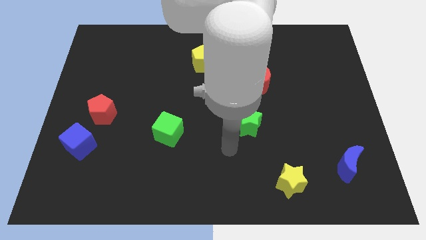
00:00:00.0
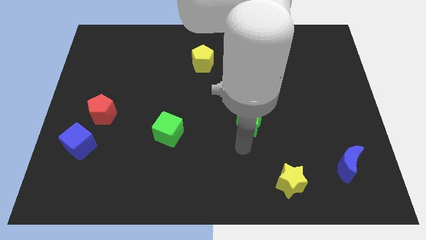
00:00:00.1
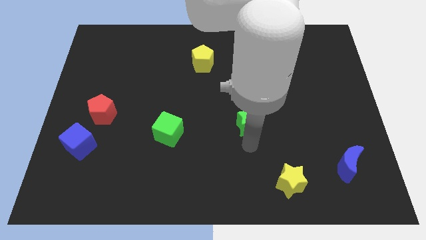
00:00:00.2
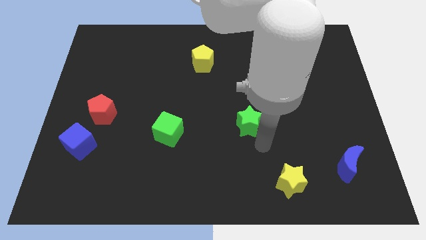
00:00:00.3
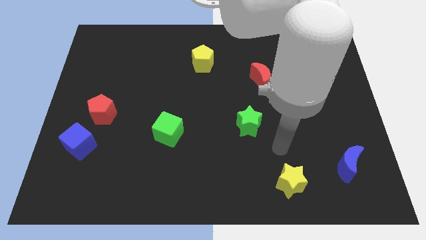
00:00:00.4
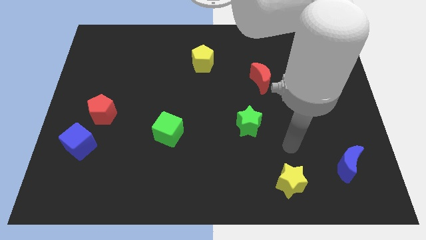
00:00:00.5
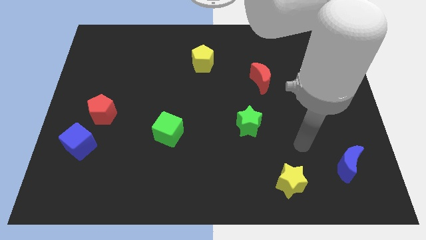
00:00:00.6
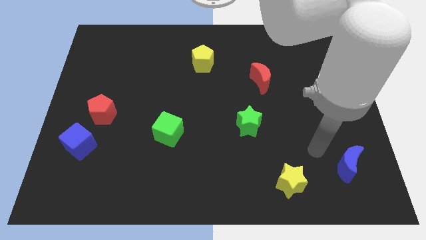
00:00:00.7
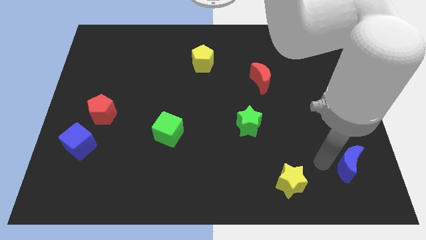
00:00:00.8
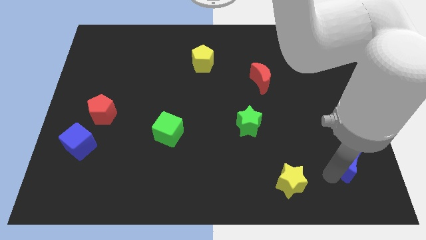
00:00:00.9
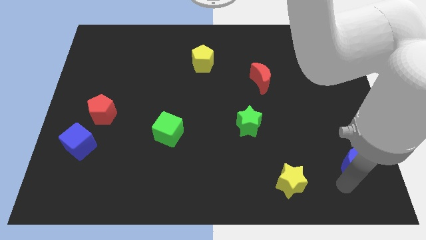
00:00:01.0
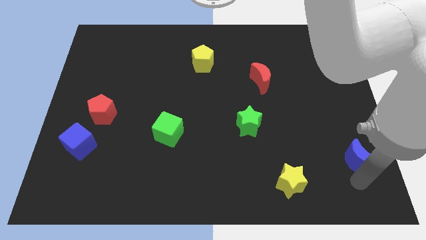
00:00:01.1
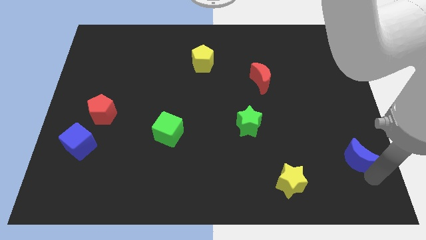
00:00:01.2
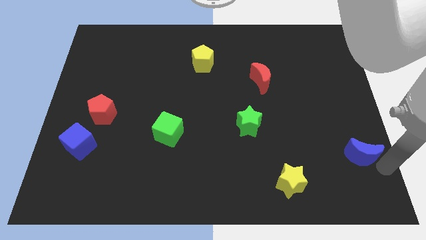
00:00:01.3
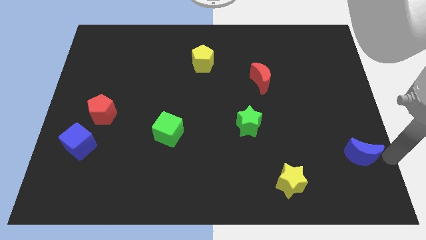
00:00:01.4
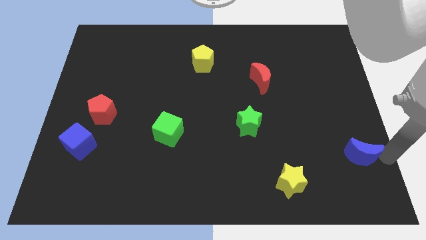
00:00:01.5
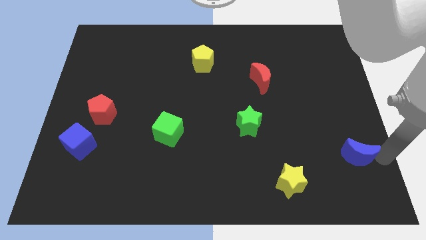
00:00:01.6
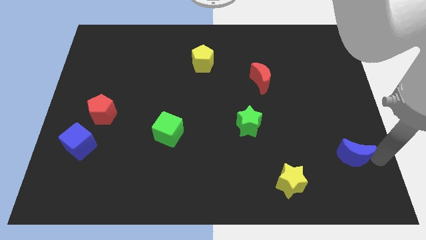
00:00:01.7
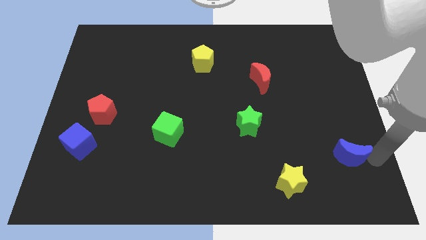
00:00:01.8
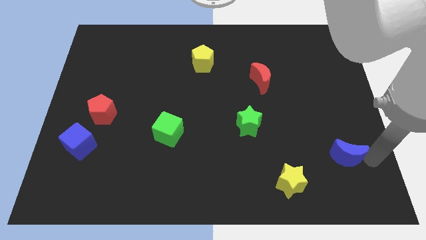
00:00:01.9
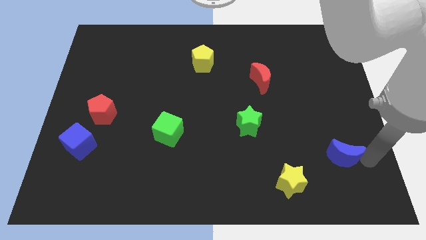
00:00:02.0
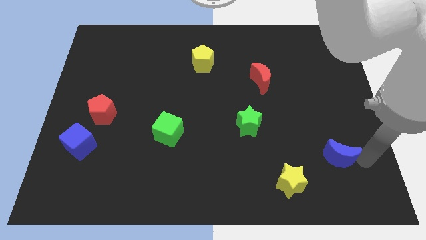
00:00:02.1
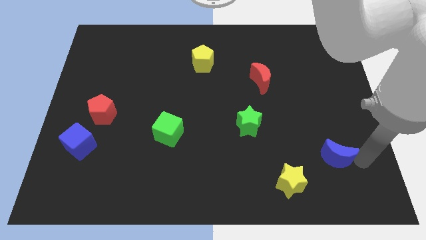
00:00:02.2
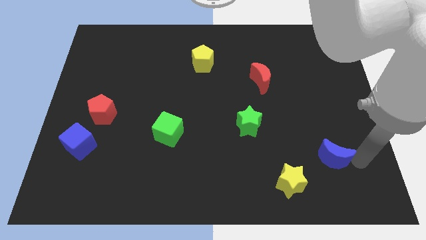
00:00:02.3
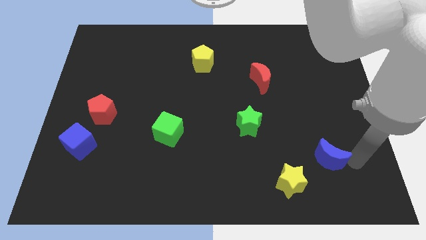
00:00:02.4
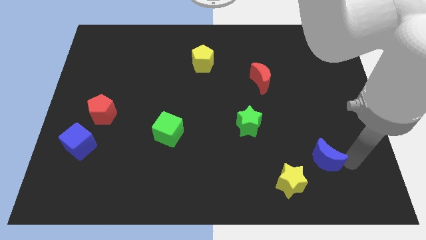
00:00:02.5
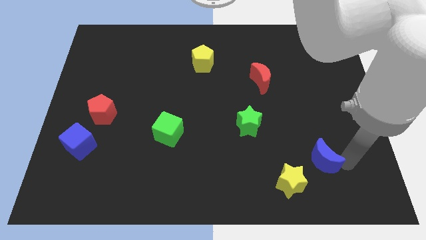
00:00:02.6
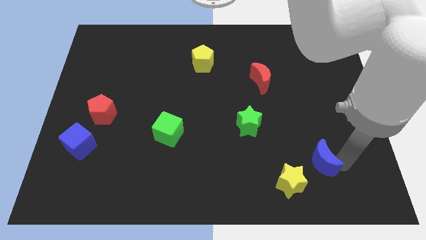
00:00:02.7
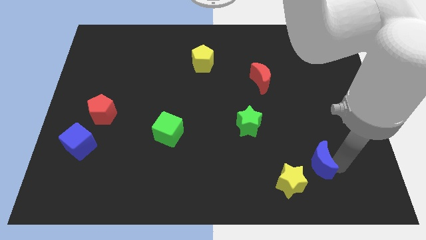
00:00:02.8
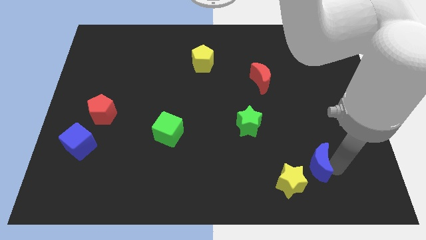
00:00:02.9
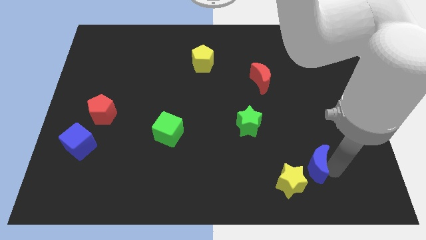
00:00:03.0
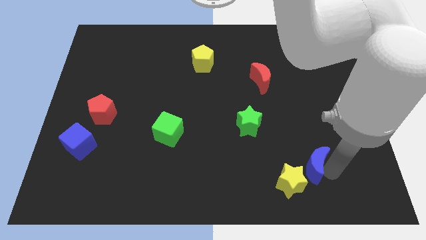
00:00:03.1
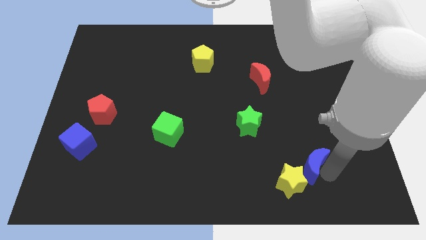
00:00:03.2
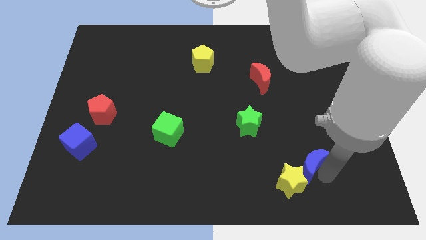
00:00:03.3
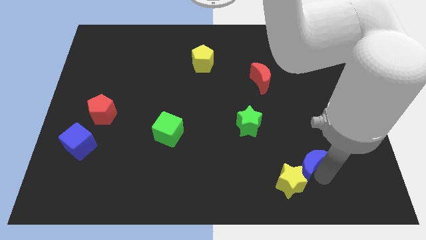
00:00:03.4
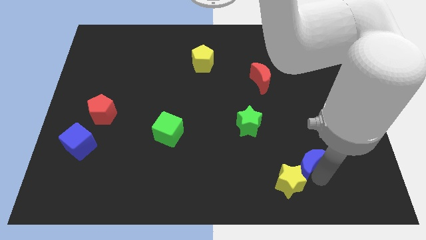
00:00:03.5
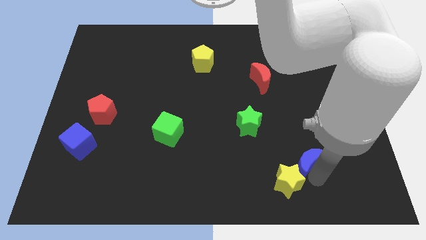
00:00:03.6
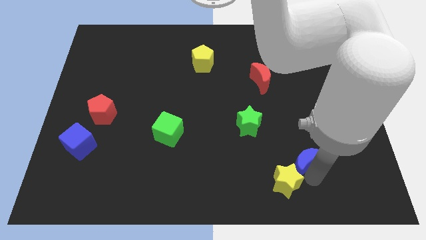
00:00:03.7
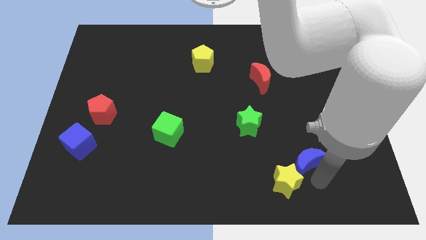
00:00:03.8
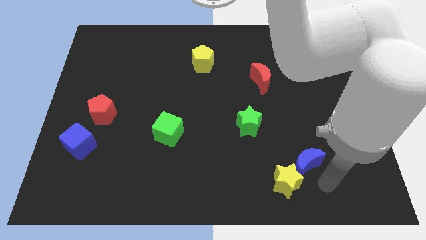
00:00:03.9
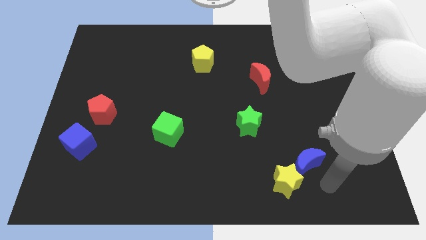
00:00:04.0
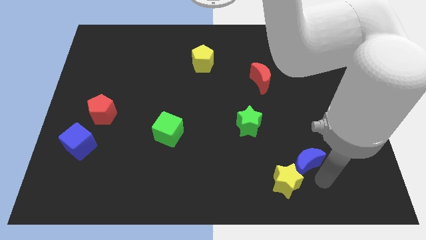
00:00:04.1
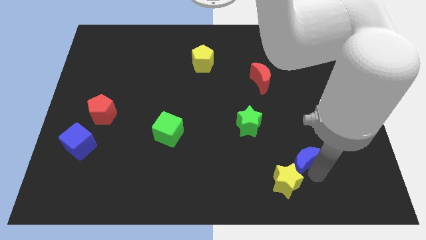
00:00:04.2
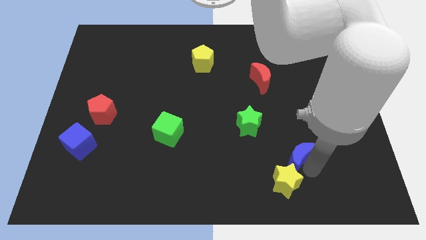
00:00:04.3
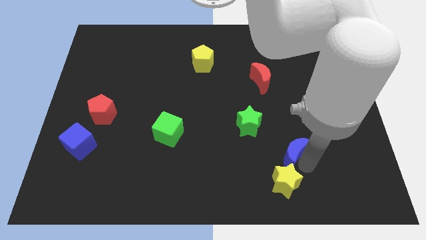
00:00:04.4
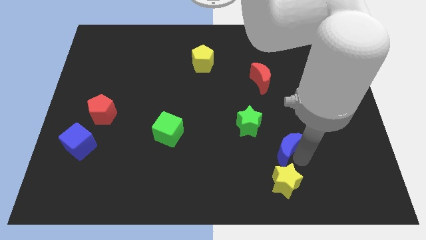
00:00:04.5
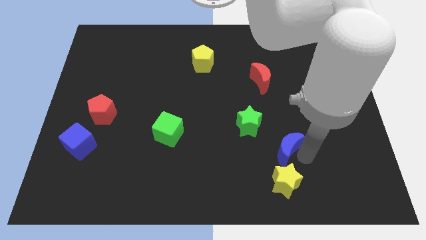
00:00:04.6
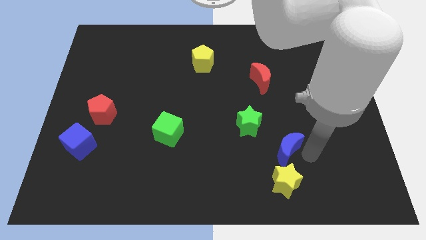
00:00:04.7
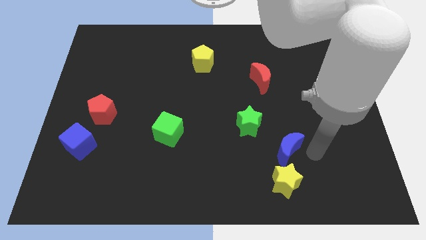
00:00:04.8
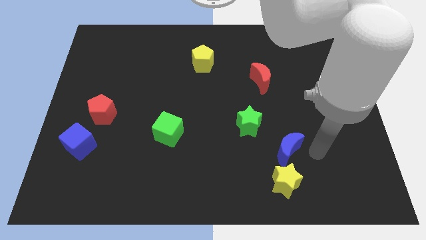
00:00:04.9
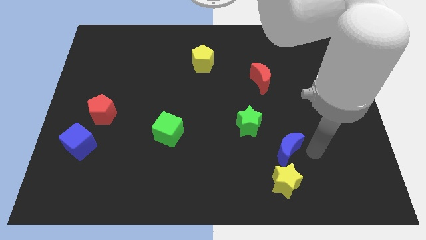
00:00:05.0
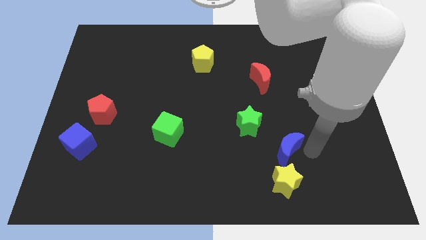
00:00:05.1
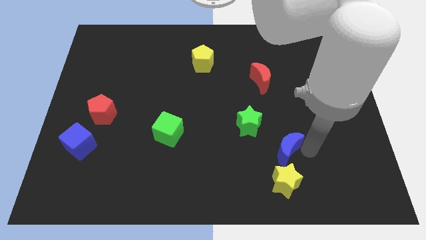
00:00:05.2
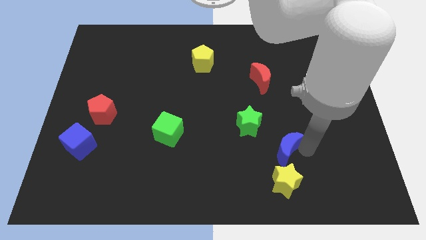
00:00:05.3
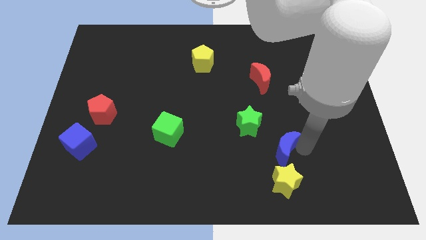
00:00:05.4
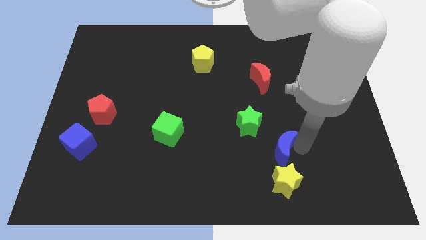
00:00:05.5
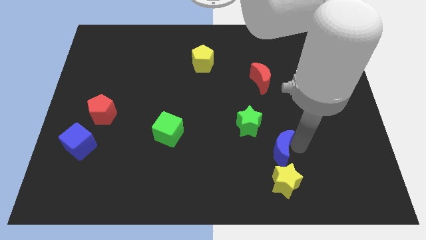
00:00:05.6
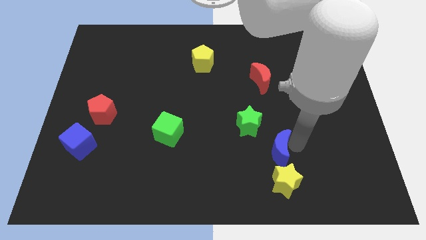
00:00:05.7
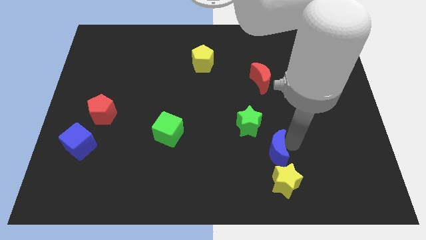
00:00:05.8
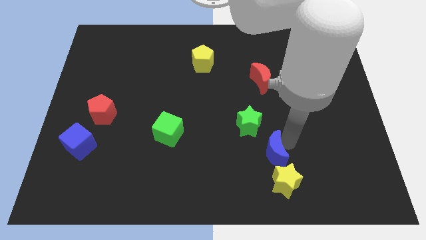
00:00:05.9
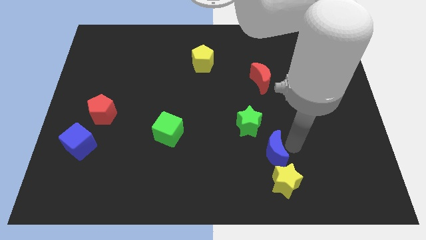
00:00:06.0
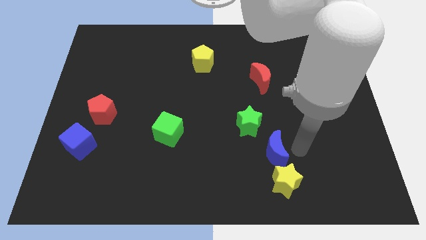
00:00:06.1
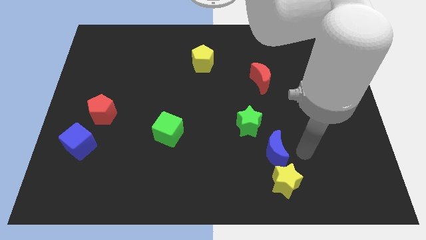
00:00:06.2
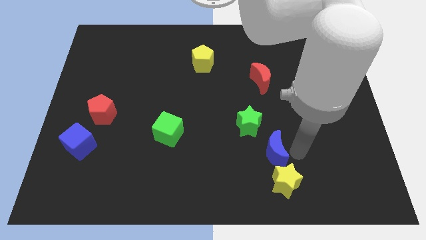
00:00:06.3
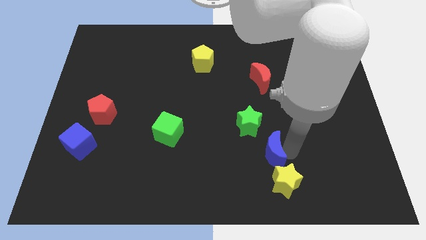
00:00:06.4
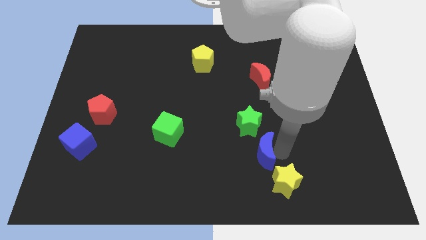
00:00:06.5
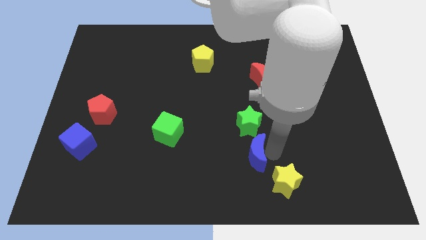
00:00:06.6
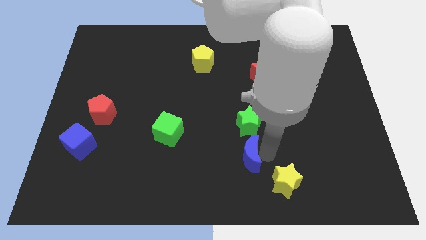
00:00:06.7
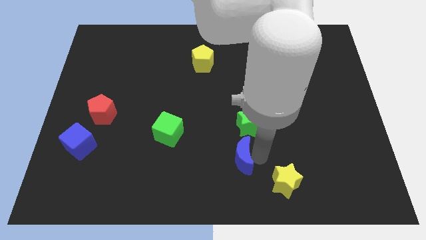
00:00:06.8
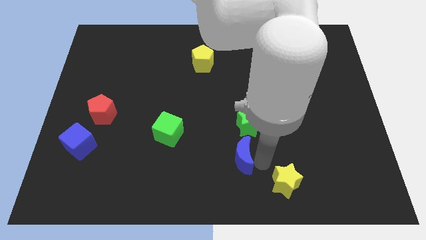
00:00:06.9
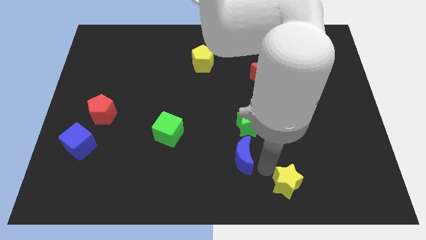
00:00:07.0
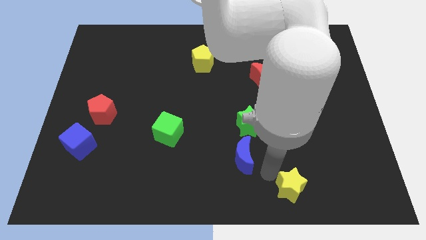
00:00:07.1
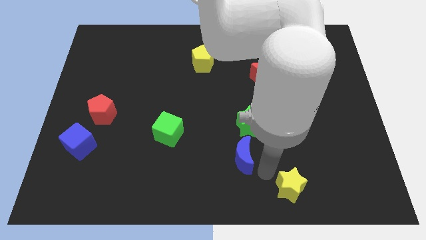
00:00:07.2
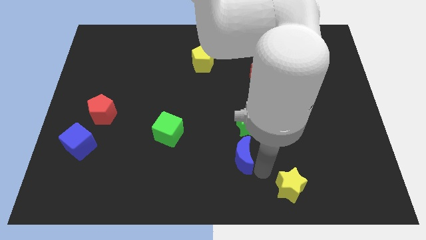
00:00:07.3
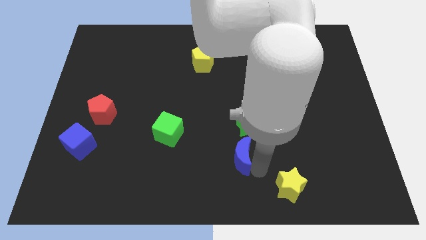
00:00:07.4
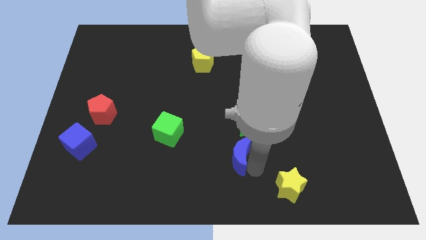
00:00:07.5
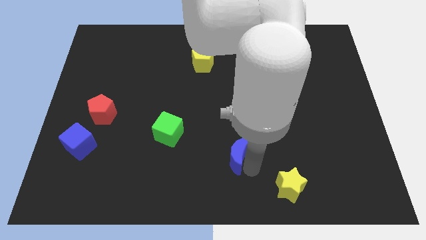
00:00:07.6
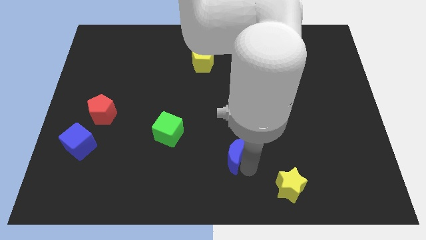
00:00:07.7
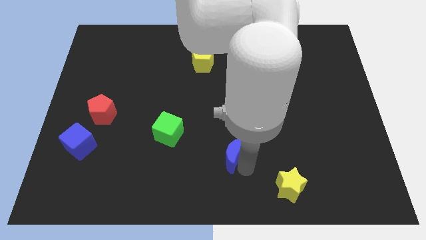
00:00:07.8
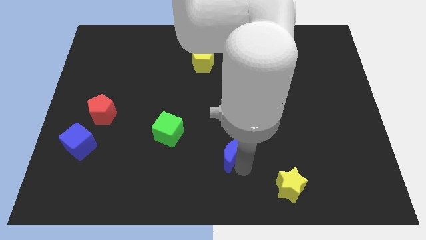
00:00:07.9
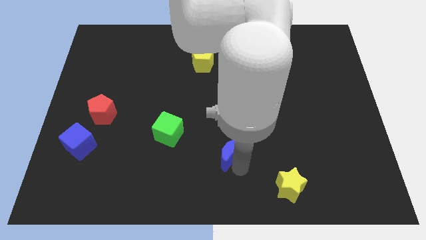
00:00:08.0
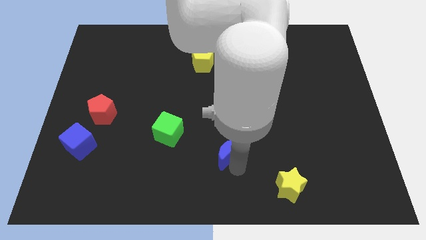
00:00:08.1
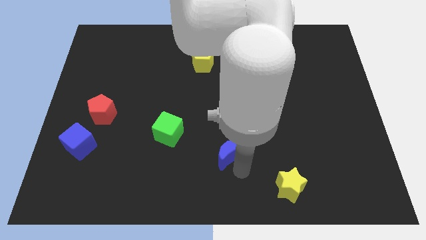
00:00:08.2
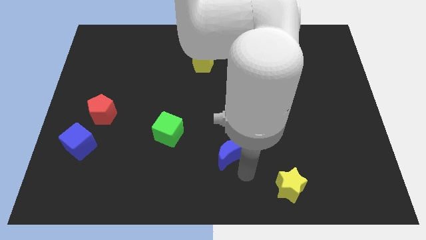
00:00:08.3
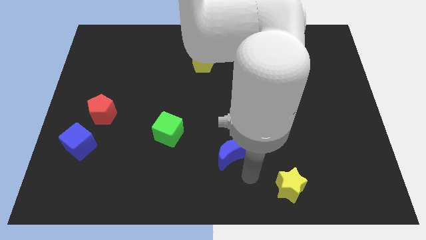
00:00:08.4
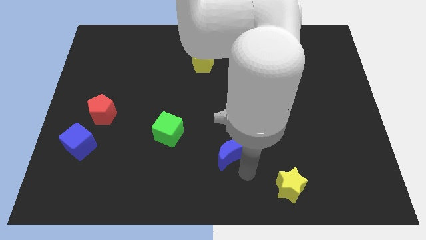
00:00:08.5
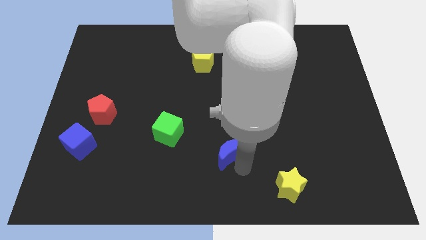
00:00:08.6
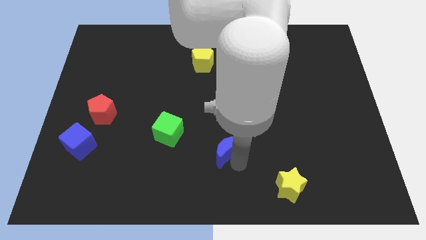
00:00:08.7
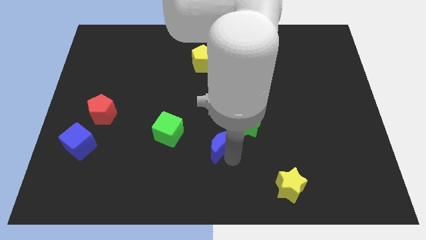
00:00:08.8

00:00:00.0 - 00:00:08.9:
move the blue moon just right of the green cube
